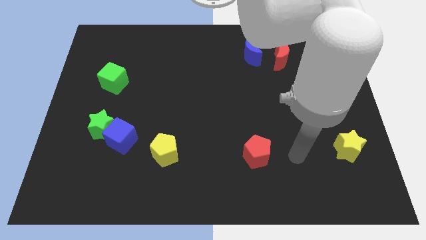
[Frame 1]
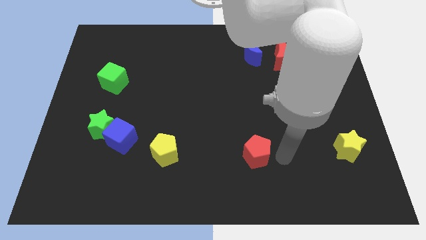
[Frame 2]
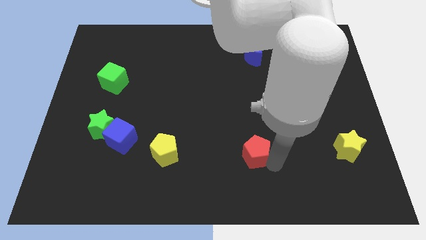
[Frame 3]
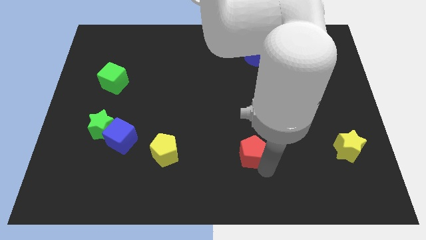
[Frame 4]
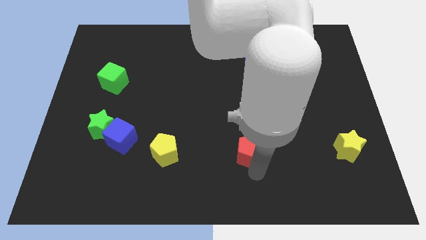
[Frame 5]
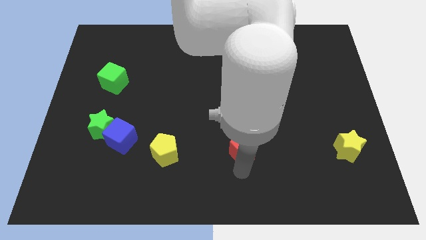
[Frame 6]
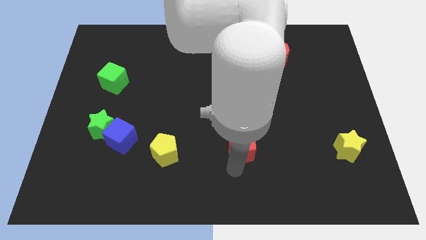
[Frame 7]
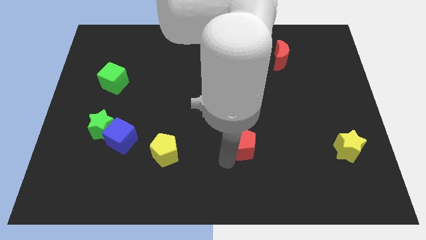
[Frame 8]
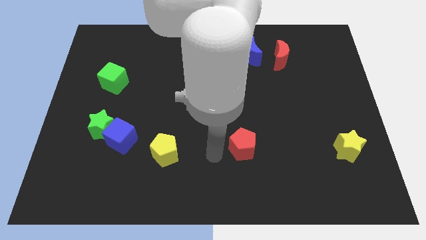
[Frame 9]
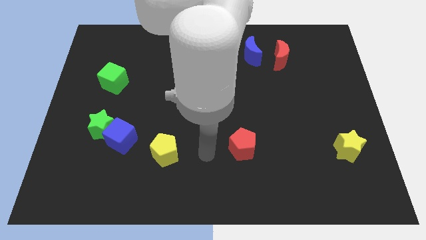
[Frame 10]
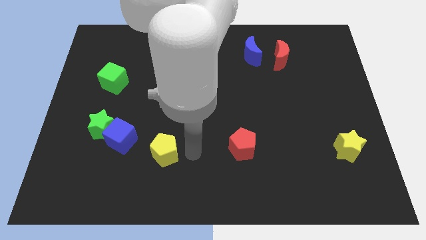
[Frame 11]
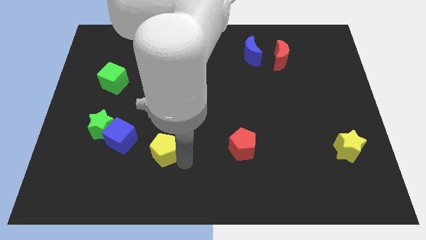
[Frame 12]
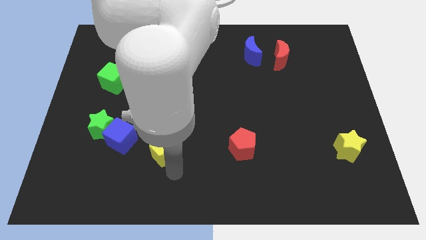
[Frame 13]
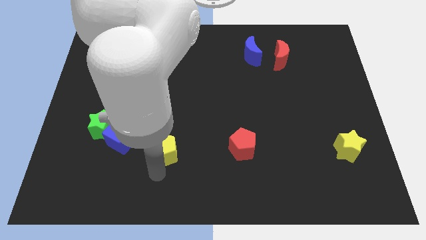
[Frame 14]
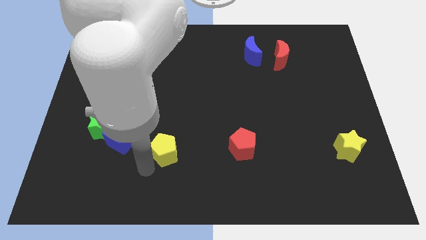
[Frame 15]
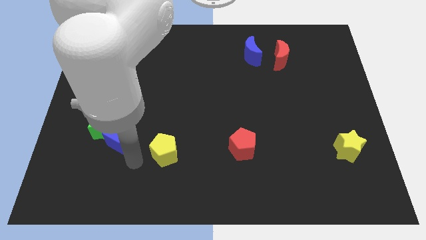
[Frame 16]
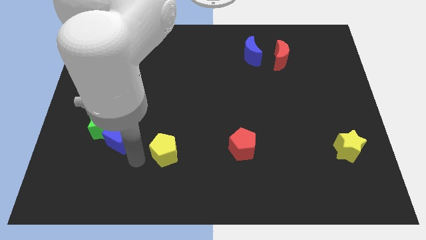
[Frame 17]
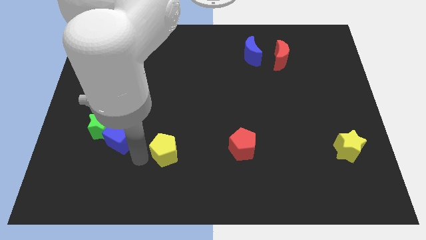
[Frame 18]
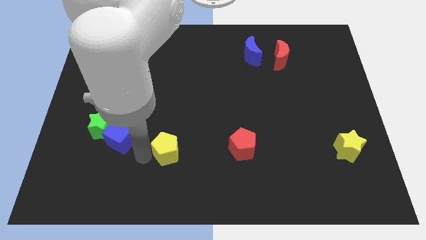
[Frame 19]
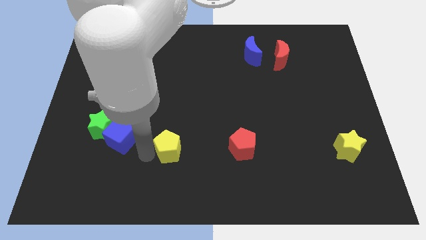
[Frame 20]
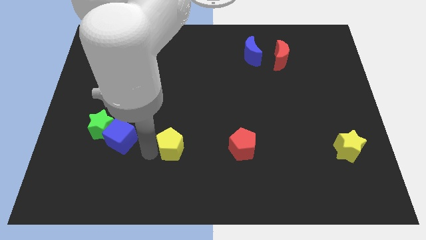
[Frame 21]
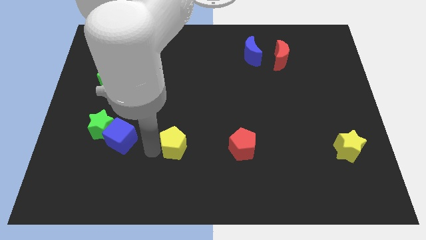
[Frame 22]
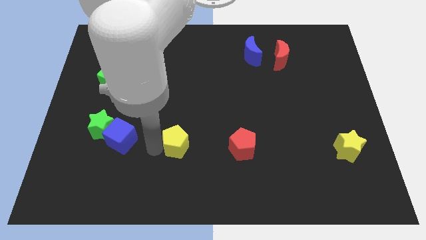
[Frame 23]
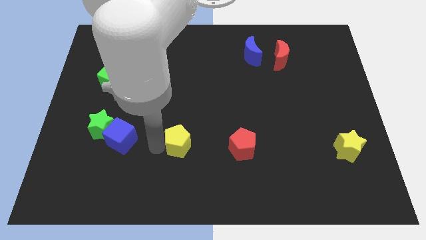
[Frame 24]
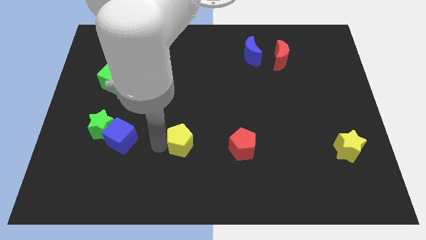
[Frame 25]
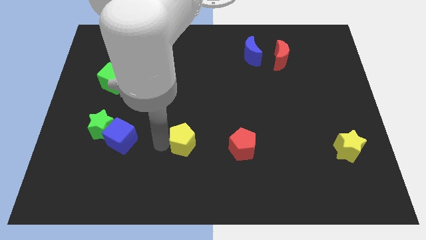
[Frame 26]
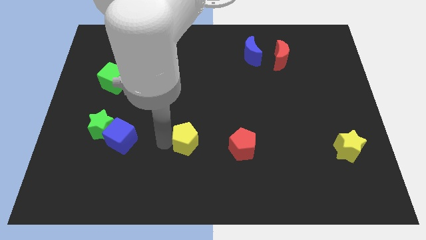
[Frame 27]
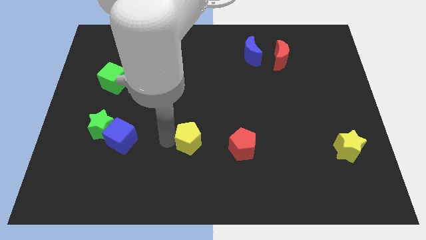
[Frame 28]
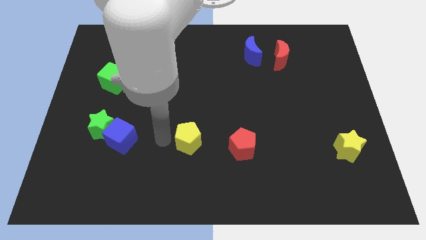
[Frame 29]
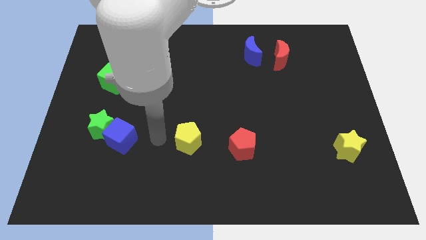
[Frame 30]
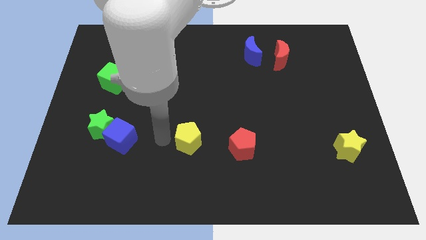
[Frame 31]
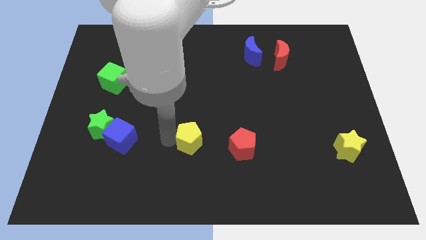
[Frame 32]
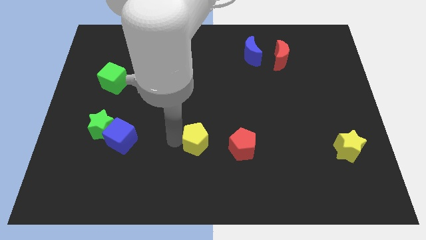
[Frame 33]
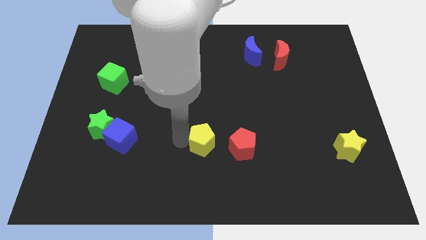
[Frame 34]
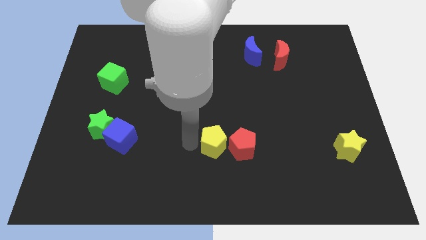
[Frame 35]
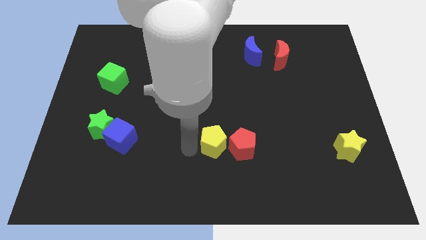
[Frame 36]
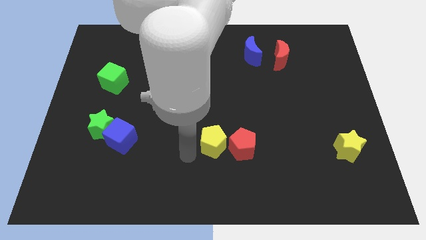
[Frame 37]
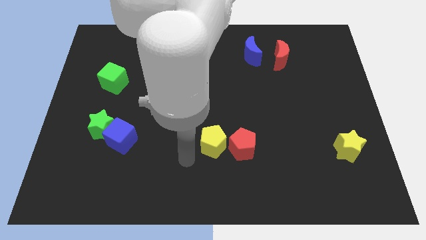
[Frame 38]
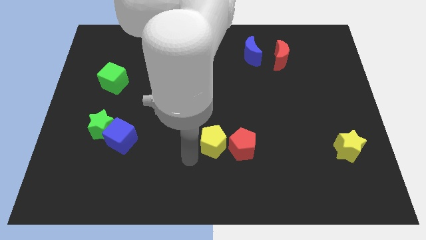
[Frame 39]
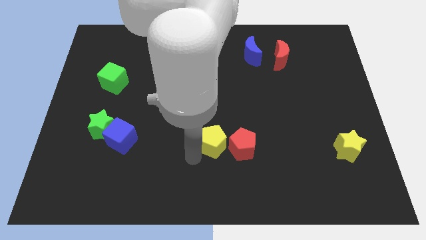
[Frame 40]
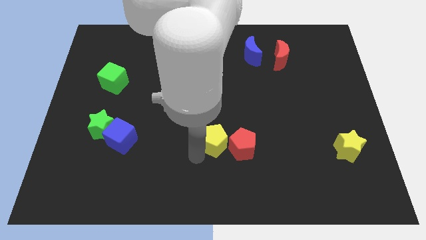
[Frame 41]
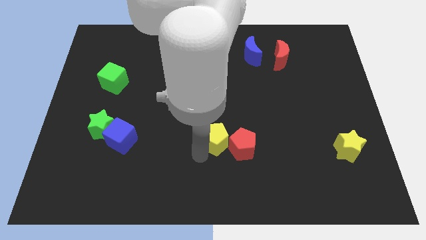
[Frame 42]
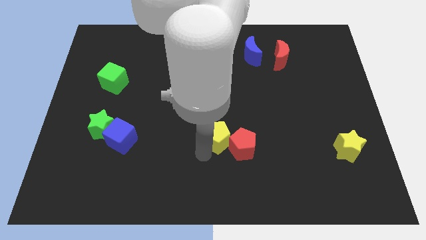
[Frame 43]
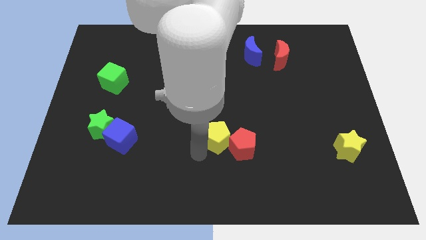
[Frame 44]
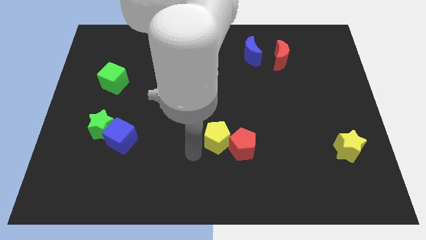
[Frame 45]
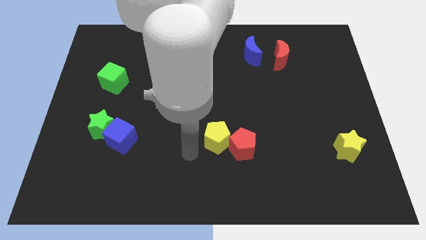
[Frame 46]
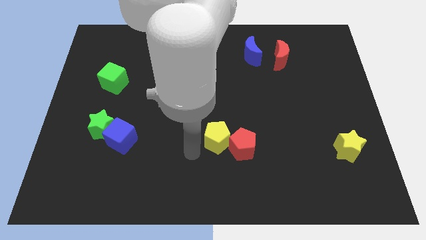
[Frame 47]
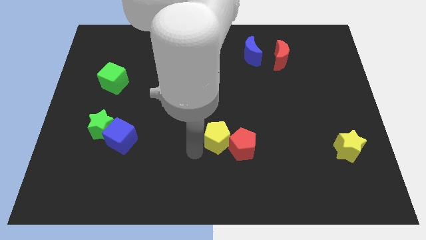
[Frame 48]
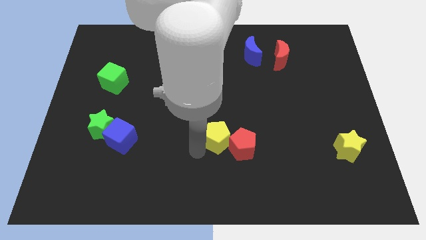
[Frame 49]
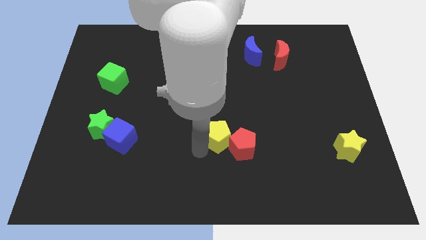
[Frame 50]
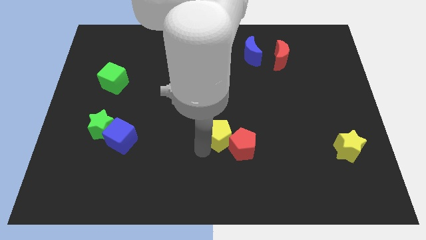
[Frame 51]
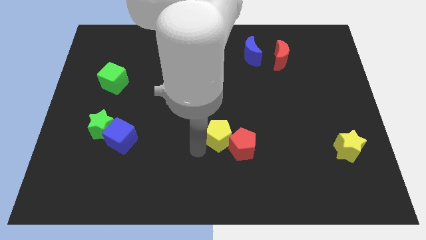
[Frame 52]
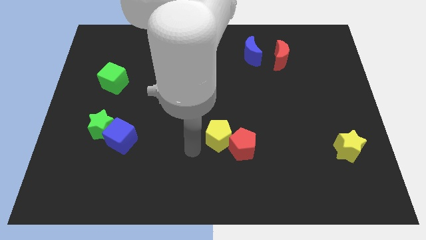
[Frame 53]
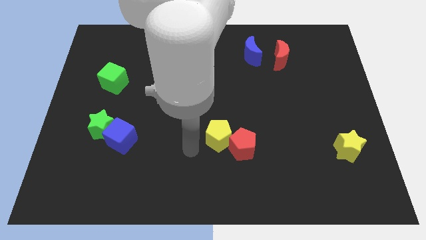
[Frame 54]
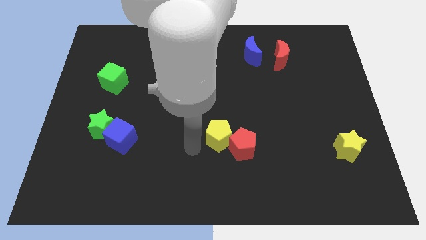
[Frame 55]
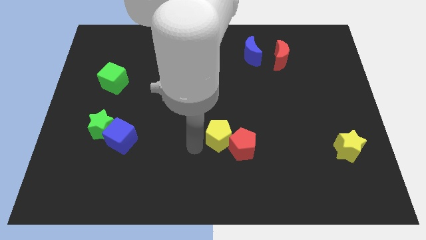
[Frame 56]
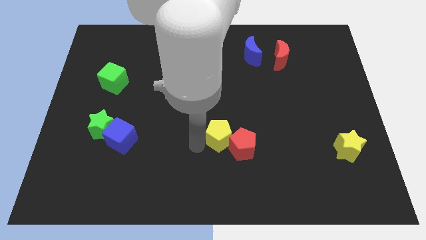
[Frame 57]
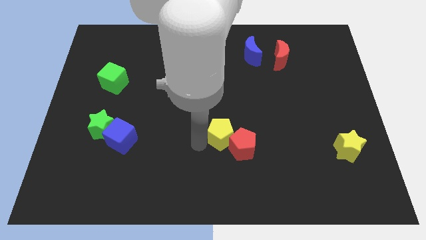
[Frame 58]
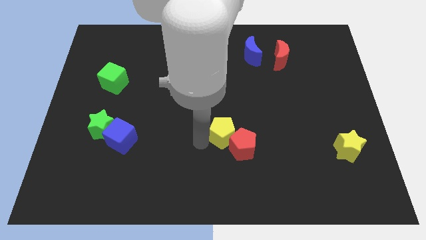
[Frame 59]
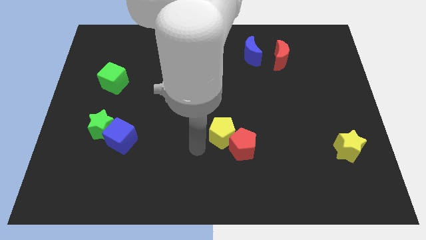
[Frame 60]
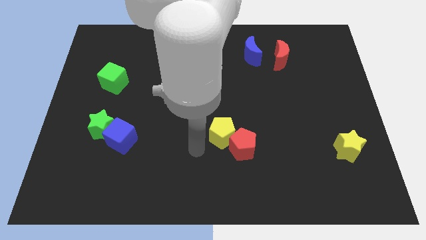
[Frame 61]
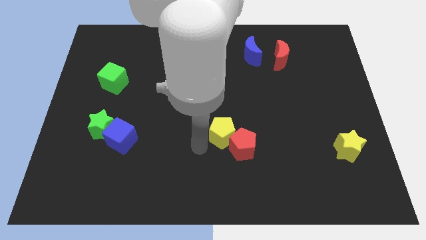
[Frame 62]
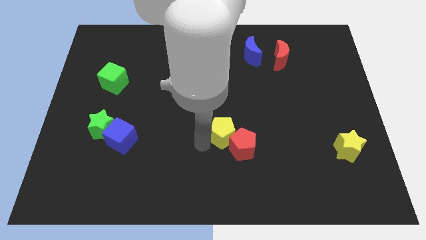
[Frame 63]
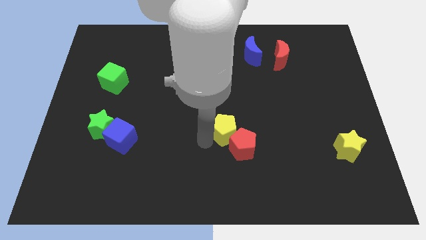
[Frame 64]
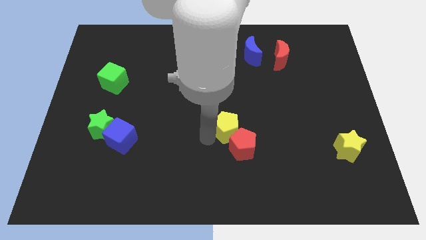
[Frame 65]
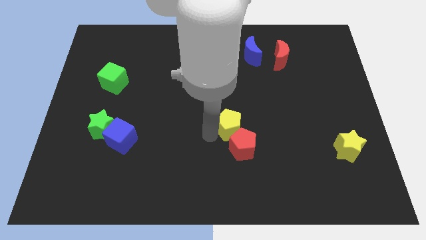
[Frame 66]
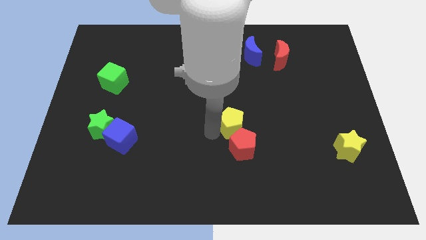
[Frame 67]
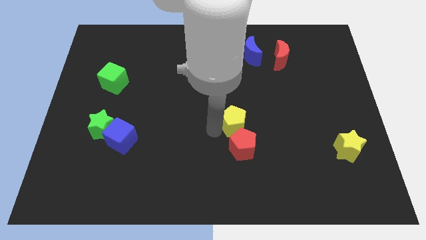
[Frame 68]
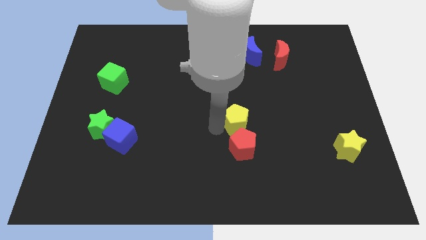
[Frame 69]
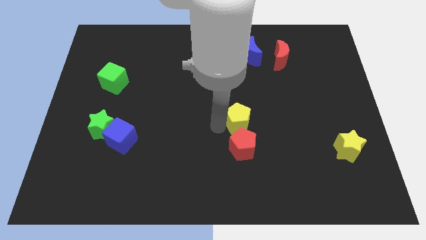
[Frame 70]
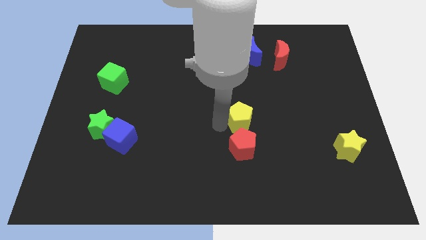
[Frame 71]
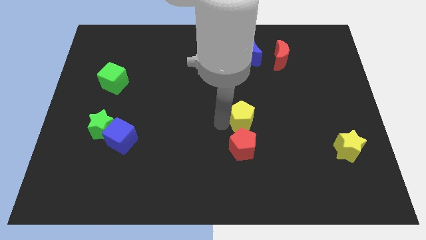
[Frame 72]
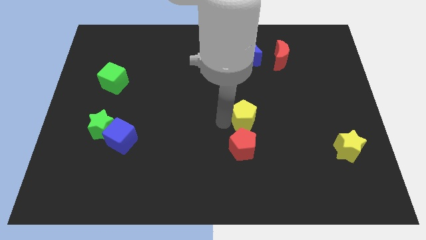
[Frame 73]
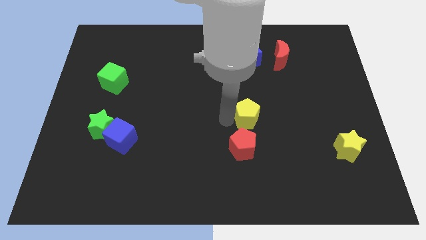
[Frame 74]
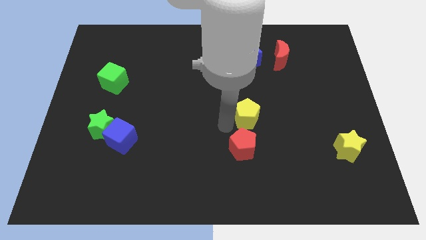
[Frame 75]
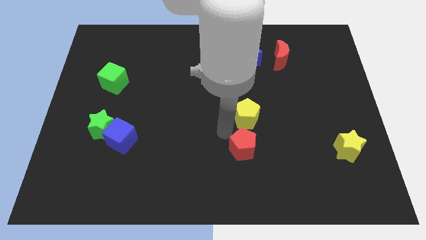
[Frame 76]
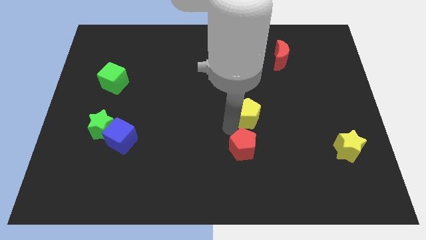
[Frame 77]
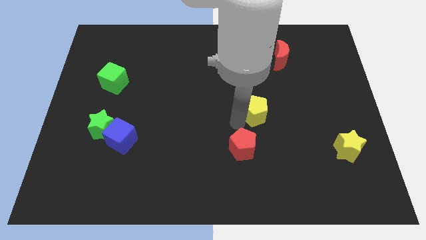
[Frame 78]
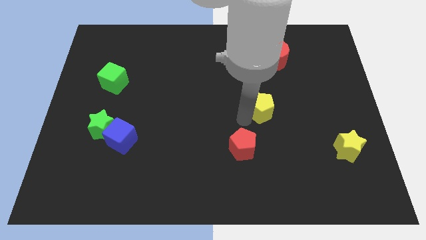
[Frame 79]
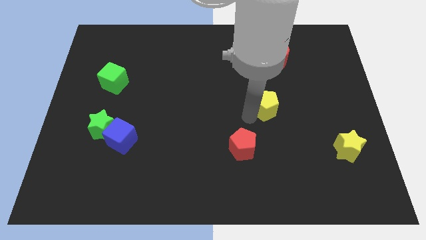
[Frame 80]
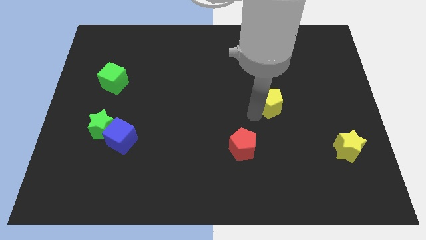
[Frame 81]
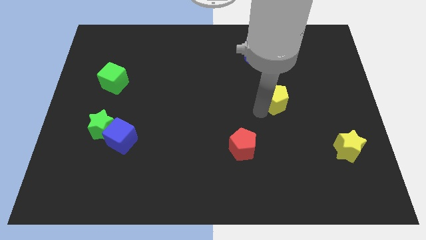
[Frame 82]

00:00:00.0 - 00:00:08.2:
push the yellow pentagon below the red moon
